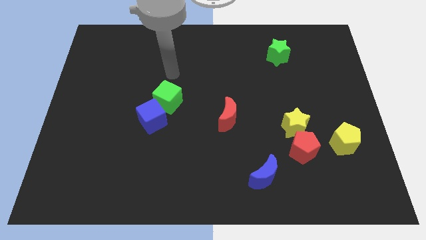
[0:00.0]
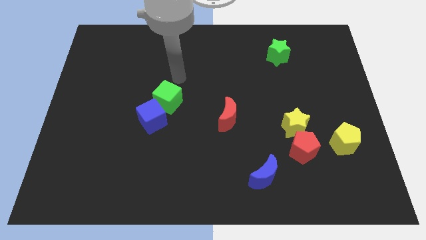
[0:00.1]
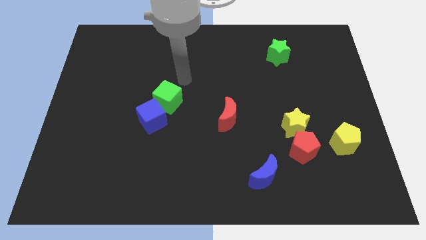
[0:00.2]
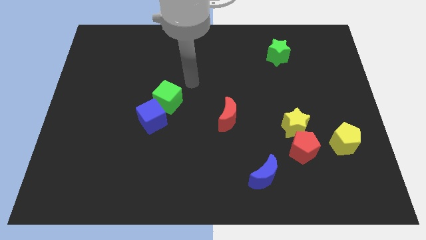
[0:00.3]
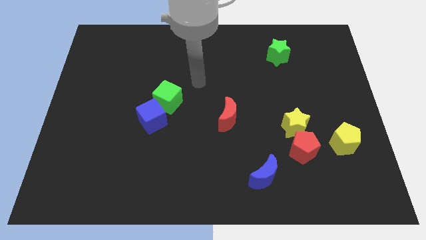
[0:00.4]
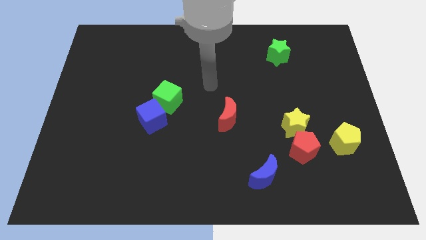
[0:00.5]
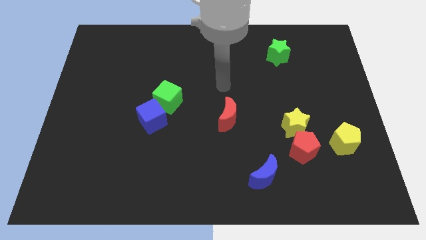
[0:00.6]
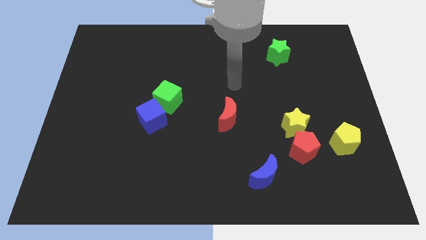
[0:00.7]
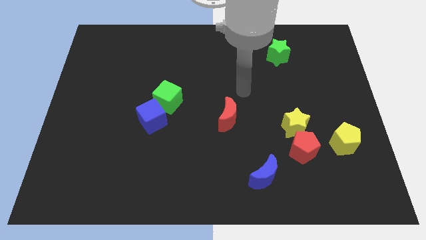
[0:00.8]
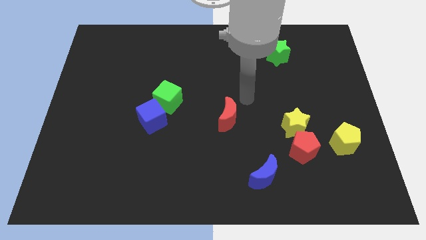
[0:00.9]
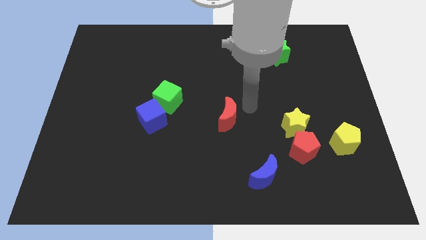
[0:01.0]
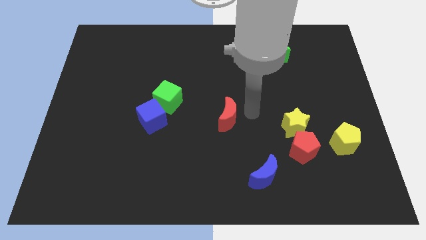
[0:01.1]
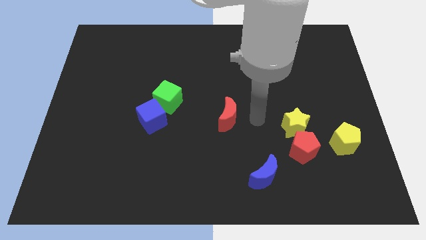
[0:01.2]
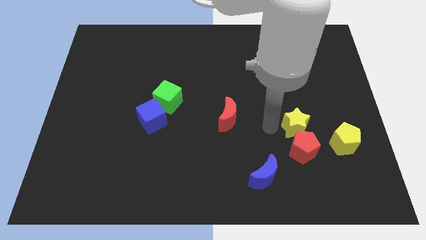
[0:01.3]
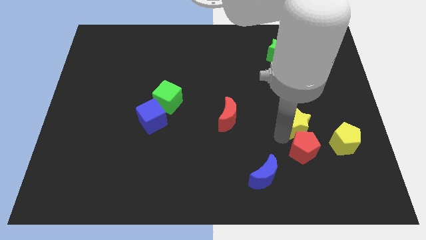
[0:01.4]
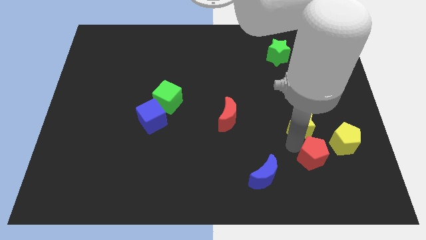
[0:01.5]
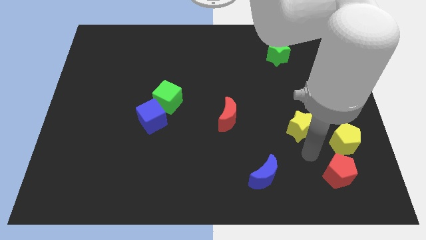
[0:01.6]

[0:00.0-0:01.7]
pull the yellow star apart from the red pentagon

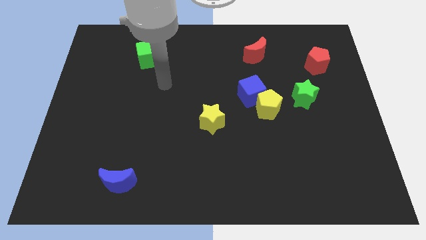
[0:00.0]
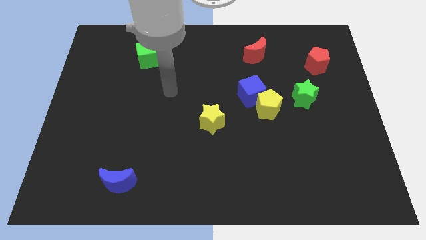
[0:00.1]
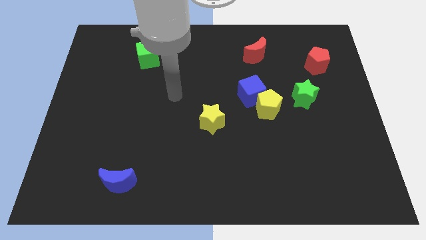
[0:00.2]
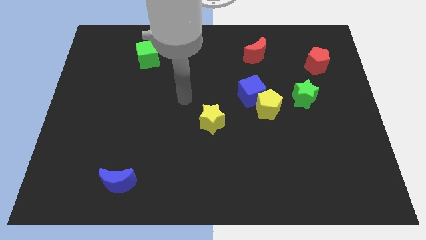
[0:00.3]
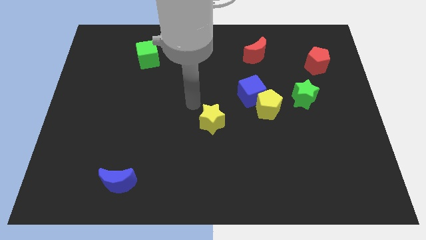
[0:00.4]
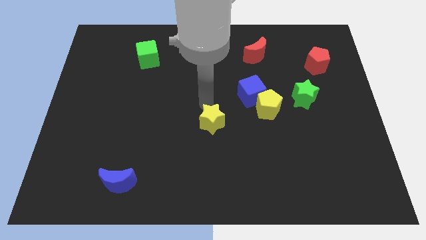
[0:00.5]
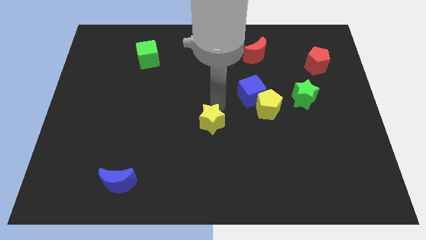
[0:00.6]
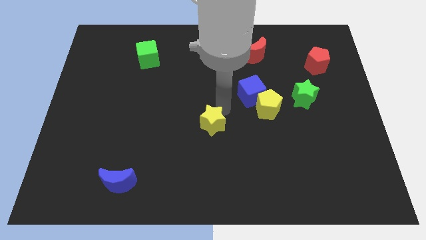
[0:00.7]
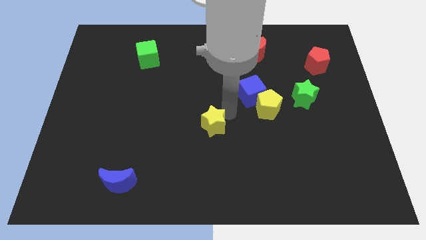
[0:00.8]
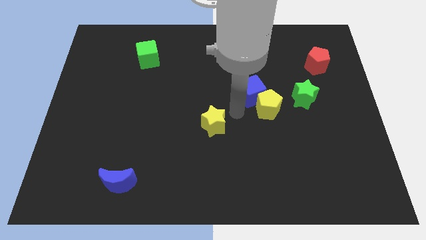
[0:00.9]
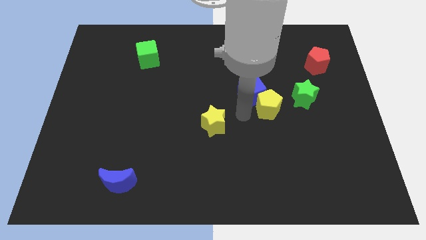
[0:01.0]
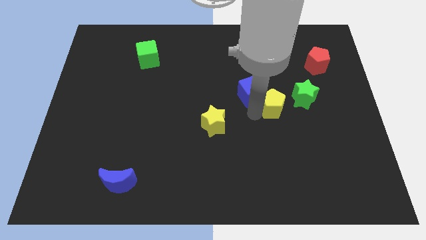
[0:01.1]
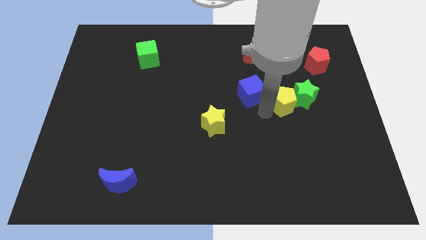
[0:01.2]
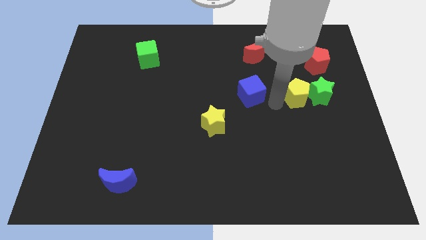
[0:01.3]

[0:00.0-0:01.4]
move the blue cube away from the yellow pentagon

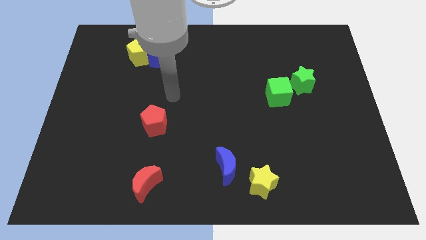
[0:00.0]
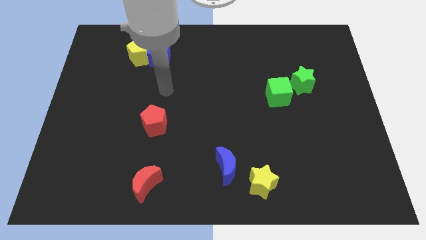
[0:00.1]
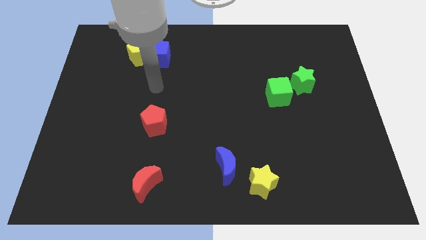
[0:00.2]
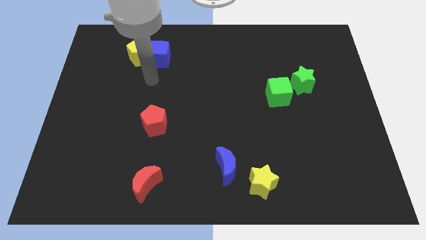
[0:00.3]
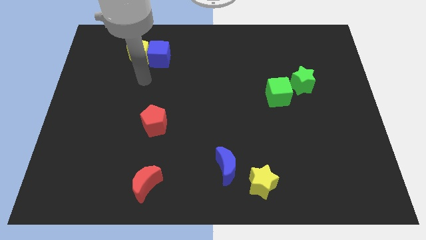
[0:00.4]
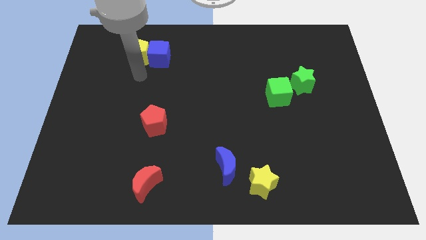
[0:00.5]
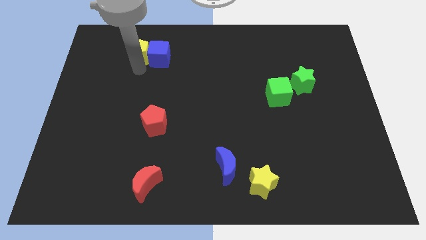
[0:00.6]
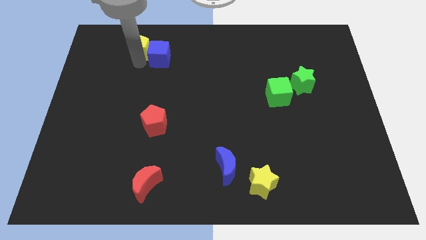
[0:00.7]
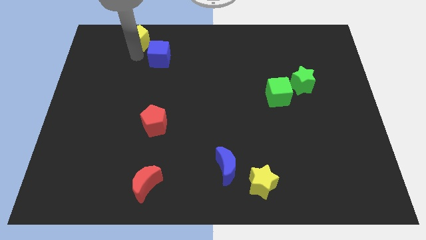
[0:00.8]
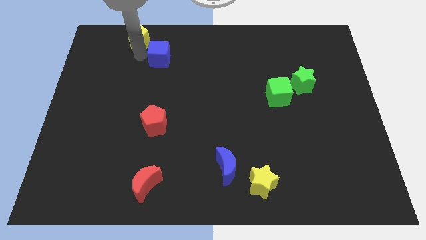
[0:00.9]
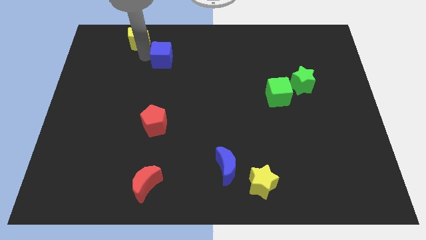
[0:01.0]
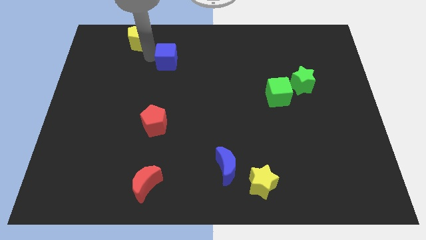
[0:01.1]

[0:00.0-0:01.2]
pull the blue cube apart from the yellow pentagon

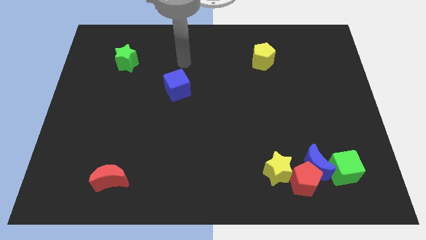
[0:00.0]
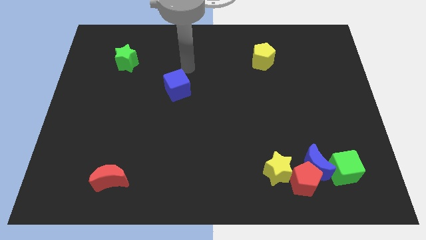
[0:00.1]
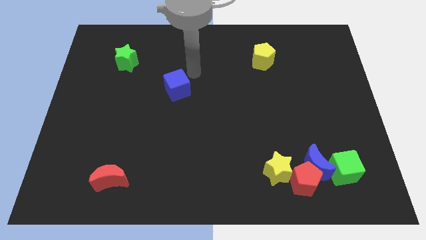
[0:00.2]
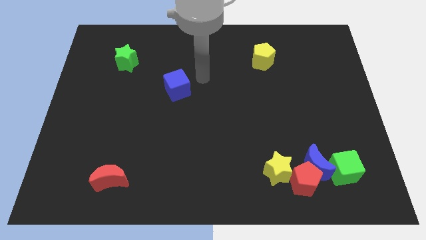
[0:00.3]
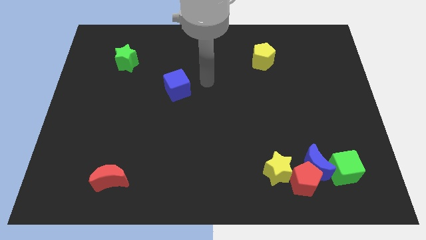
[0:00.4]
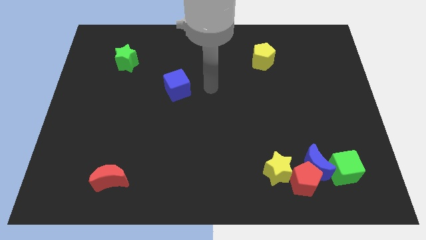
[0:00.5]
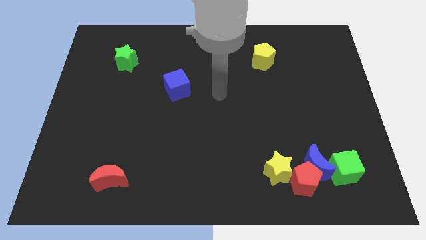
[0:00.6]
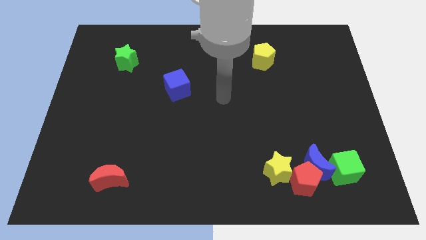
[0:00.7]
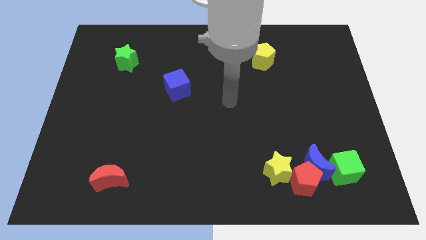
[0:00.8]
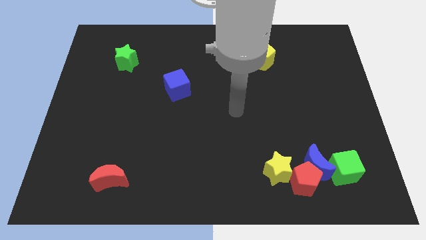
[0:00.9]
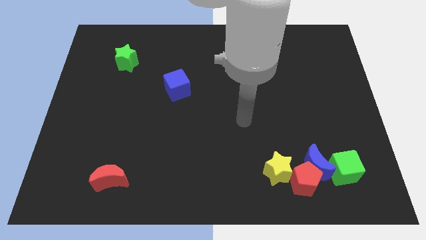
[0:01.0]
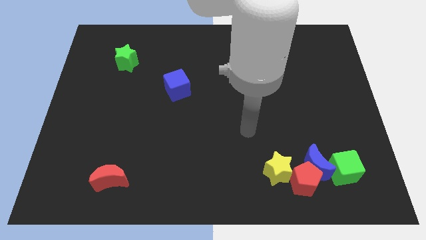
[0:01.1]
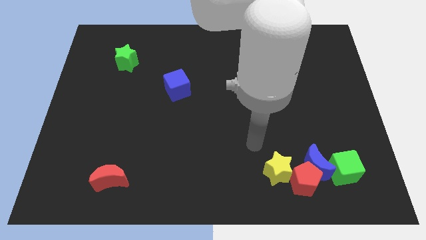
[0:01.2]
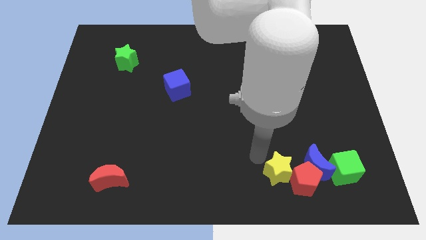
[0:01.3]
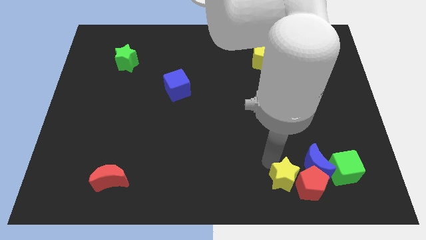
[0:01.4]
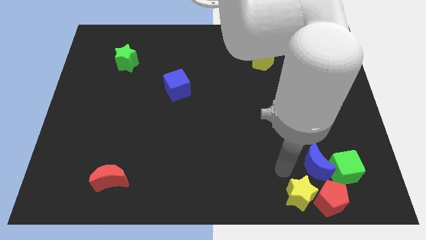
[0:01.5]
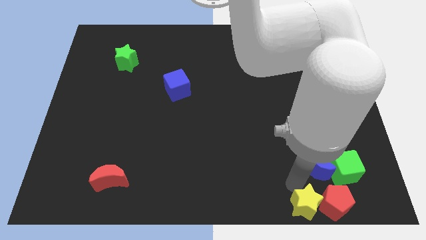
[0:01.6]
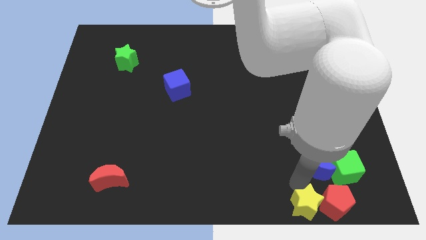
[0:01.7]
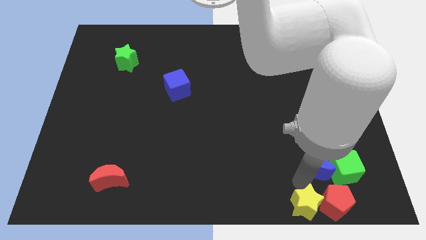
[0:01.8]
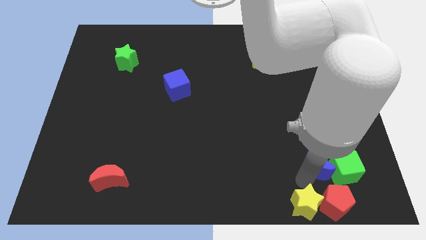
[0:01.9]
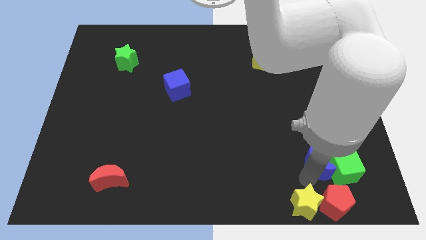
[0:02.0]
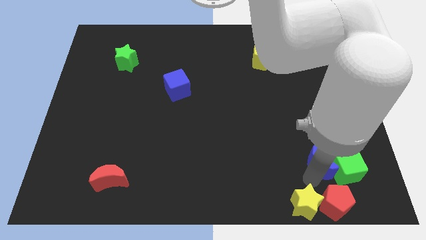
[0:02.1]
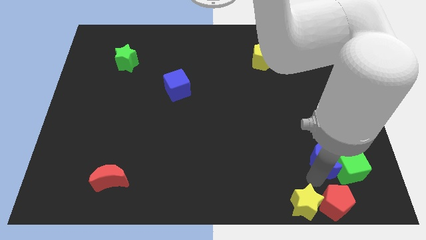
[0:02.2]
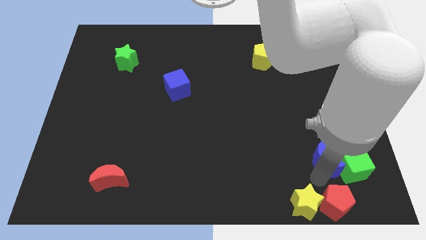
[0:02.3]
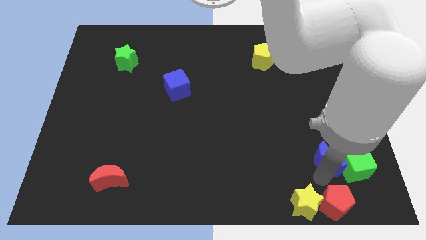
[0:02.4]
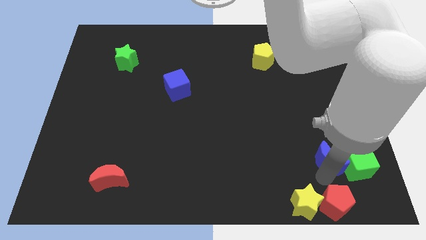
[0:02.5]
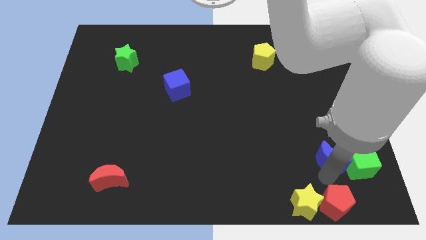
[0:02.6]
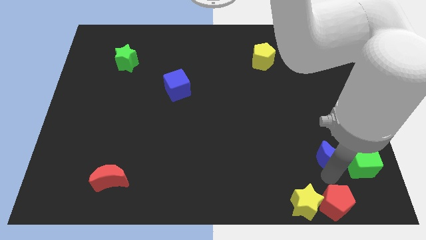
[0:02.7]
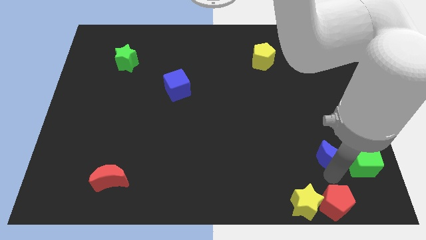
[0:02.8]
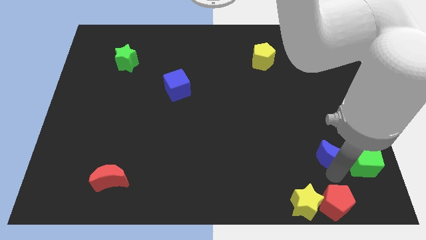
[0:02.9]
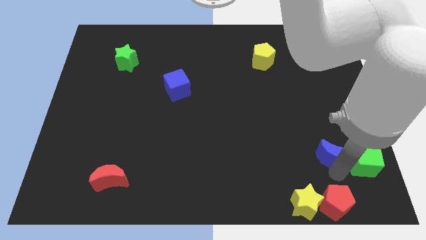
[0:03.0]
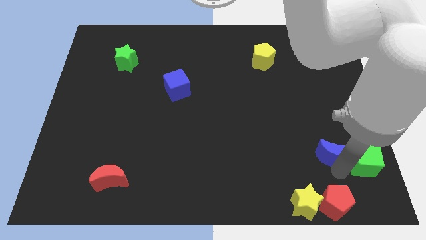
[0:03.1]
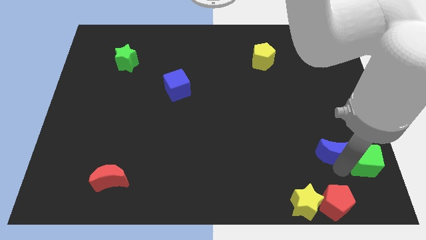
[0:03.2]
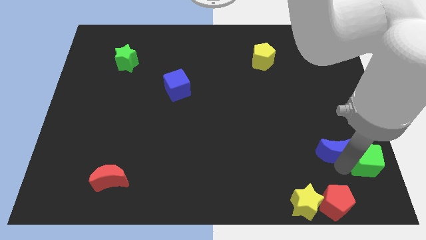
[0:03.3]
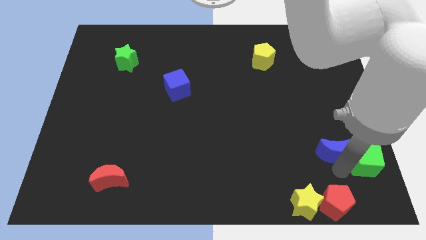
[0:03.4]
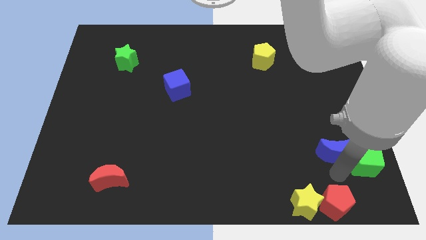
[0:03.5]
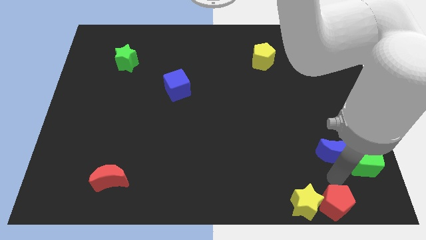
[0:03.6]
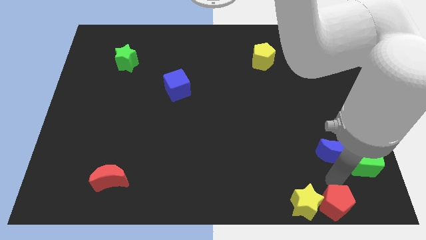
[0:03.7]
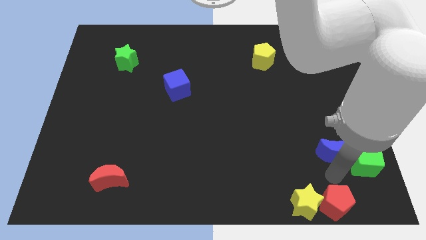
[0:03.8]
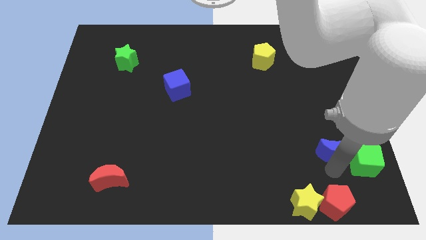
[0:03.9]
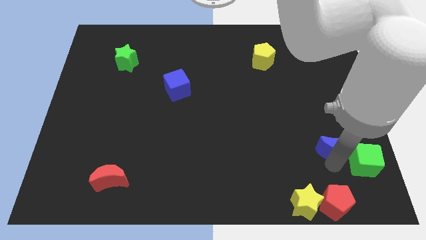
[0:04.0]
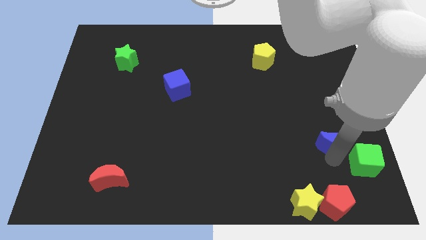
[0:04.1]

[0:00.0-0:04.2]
pull the blue moon apart from the group

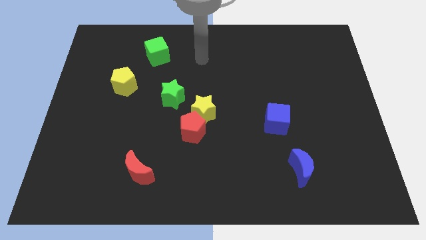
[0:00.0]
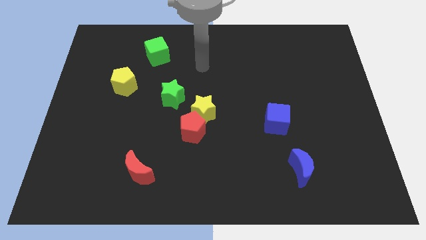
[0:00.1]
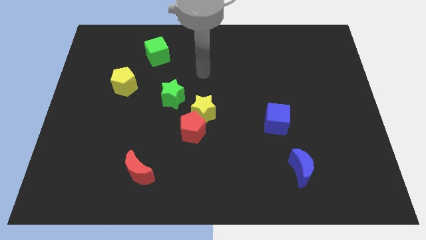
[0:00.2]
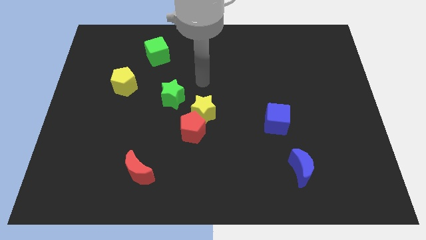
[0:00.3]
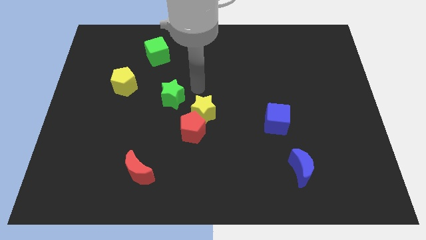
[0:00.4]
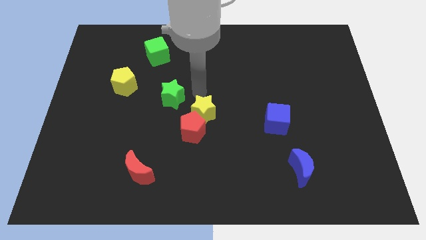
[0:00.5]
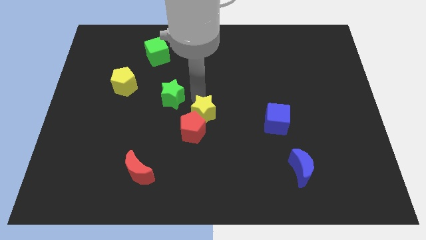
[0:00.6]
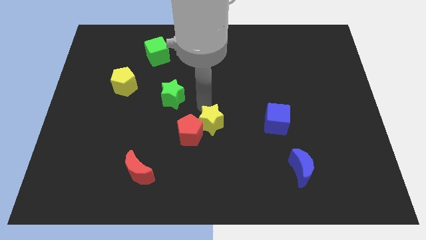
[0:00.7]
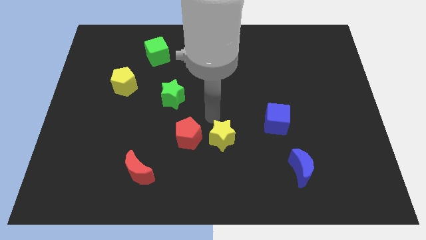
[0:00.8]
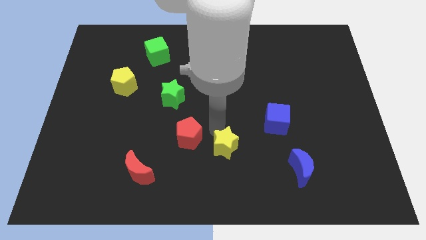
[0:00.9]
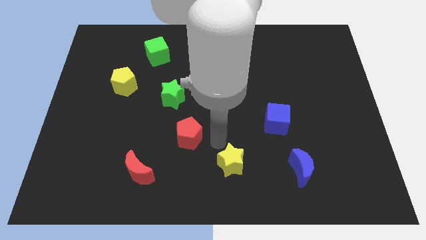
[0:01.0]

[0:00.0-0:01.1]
separate the red pentagon from the yellow star
